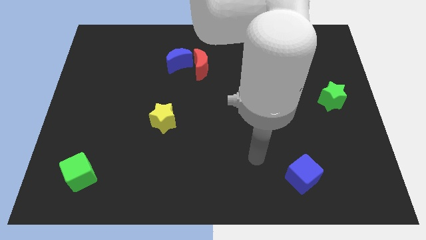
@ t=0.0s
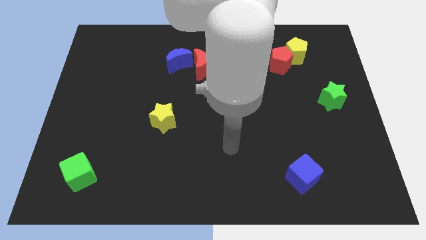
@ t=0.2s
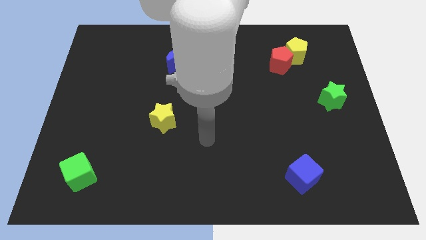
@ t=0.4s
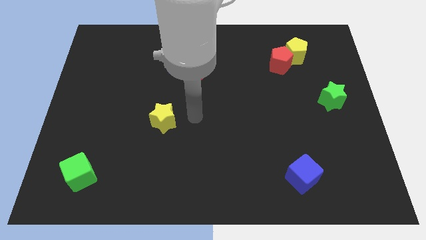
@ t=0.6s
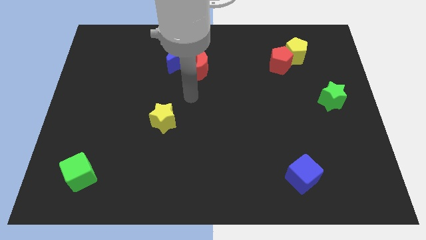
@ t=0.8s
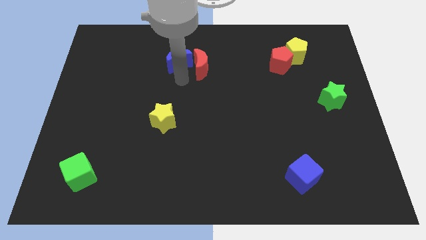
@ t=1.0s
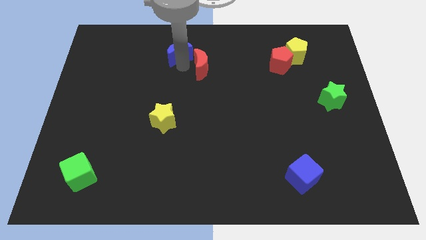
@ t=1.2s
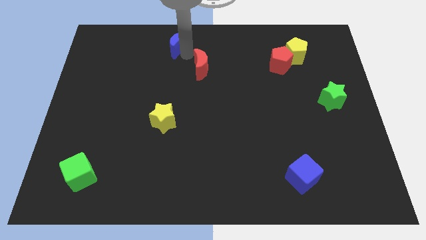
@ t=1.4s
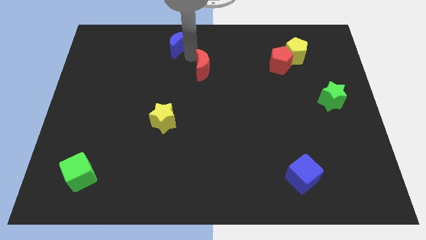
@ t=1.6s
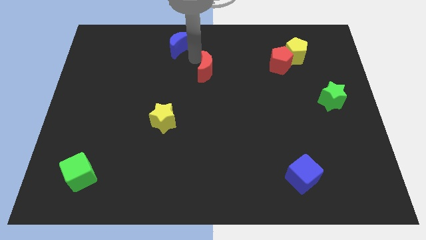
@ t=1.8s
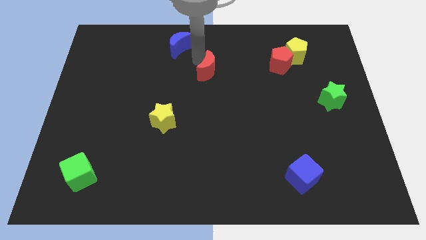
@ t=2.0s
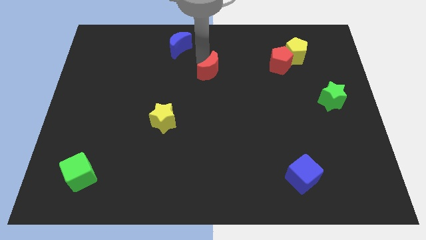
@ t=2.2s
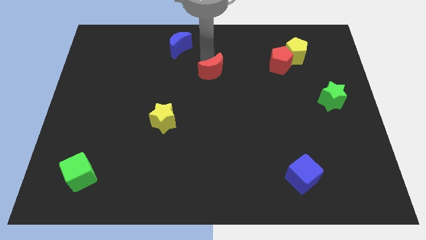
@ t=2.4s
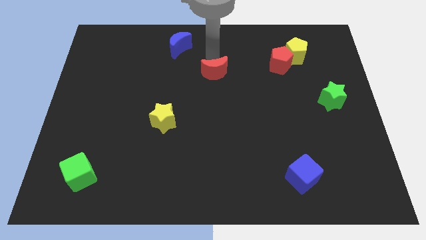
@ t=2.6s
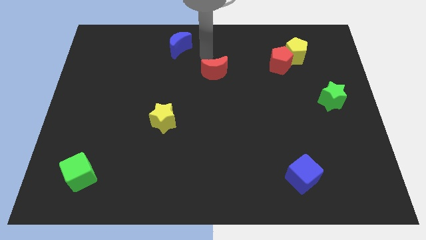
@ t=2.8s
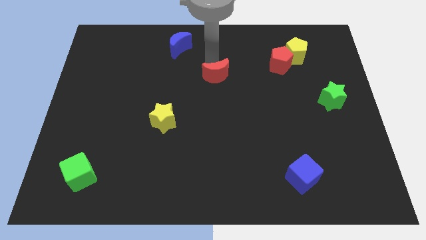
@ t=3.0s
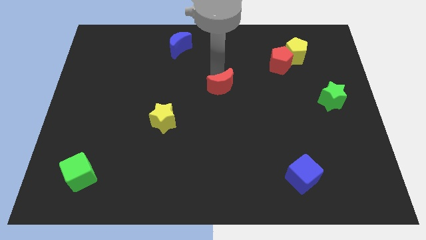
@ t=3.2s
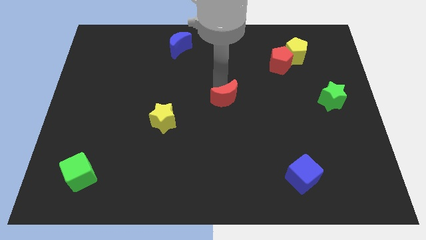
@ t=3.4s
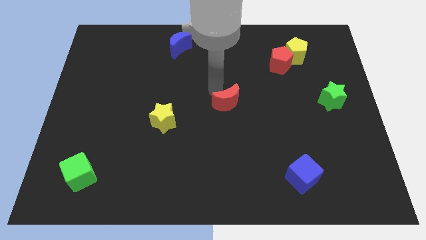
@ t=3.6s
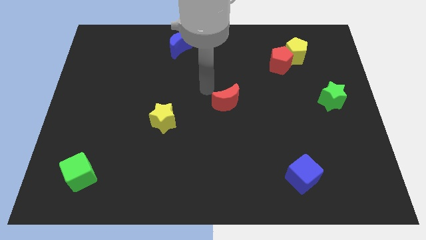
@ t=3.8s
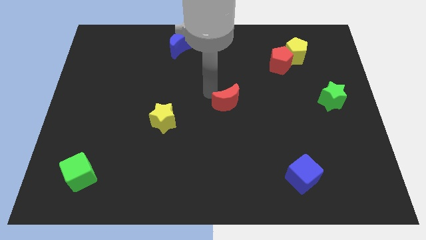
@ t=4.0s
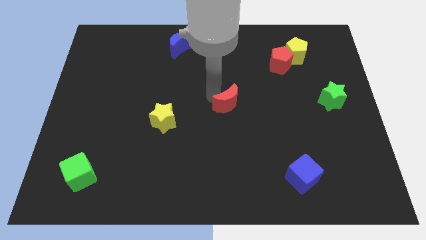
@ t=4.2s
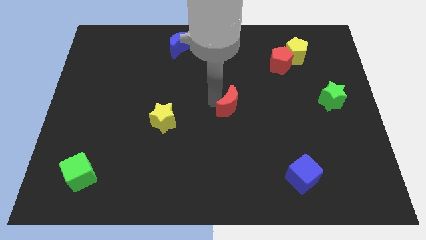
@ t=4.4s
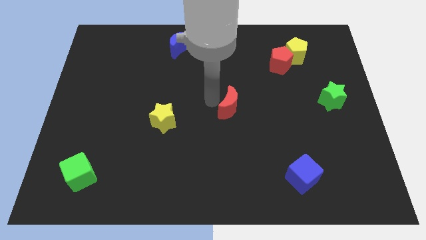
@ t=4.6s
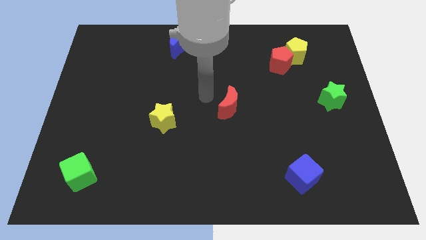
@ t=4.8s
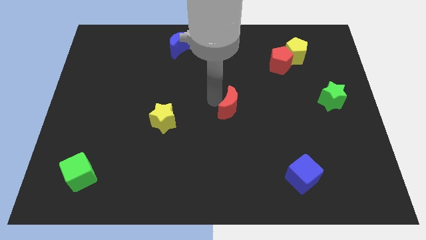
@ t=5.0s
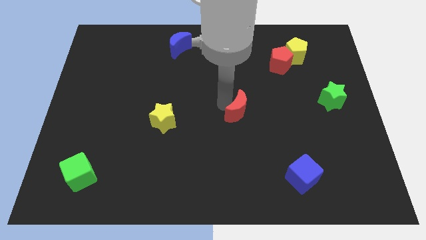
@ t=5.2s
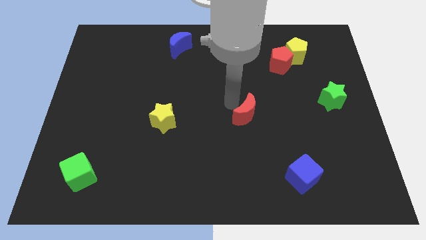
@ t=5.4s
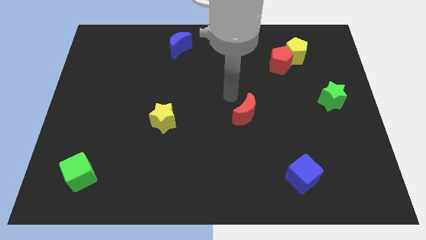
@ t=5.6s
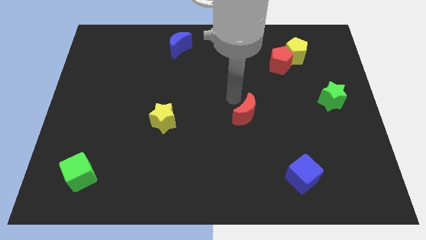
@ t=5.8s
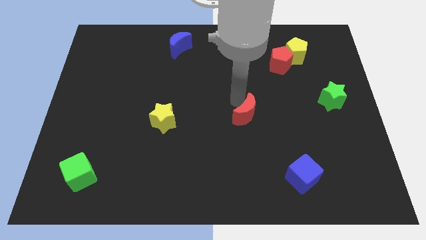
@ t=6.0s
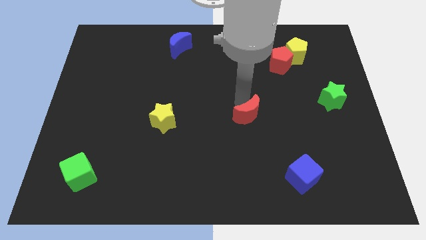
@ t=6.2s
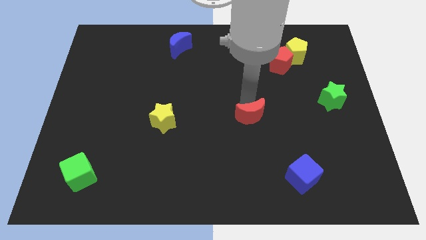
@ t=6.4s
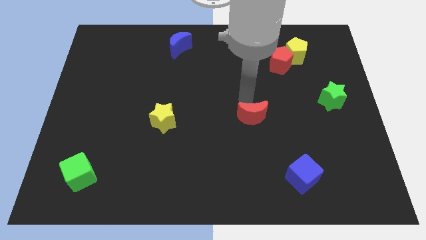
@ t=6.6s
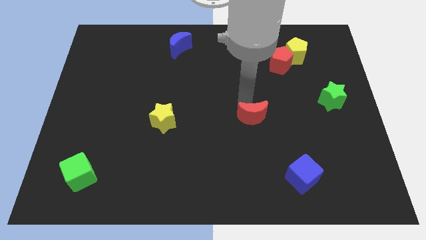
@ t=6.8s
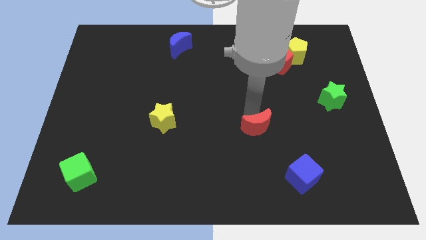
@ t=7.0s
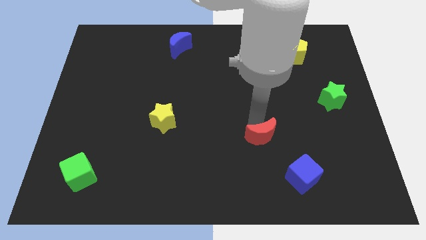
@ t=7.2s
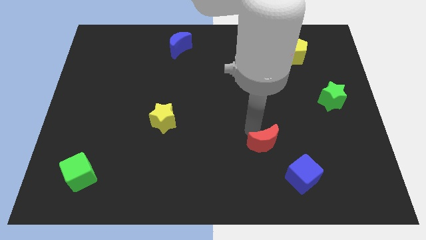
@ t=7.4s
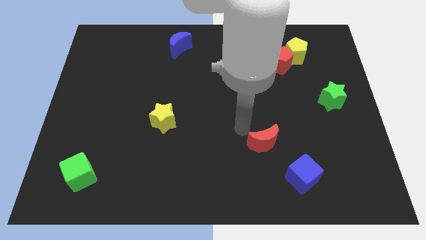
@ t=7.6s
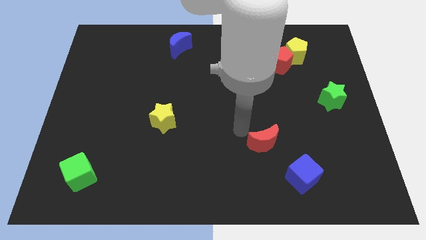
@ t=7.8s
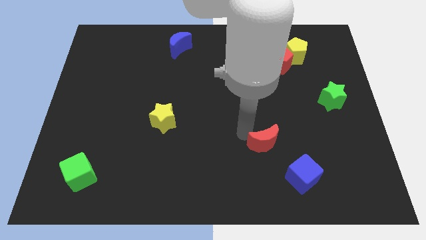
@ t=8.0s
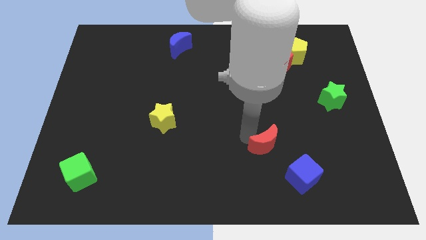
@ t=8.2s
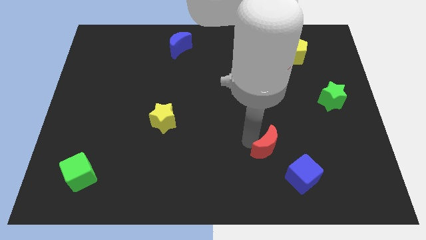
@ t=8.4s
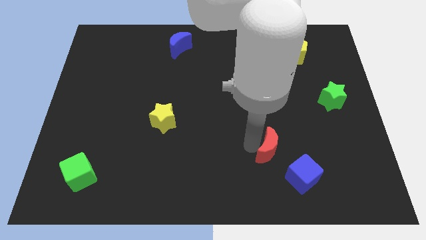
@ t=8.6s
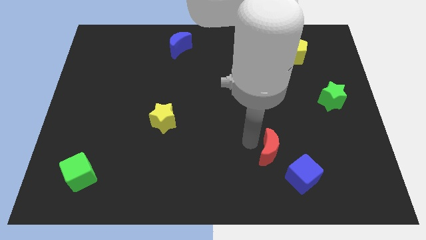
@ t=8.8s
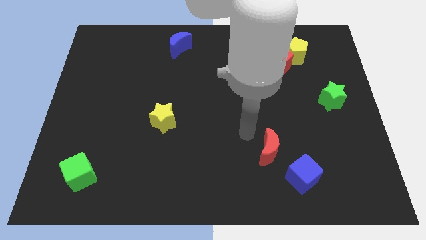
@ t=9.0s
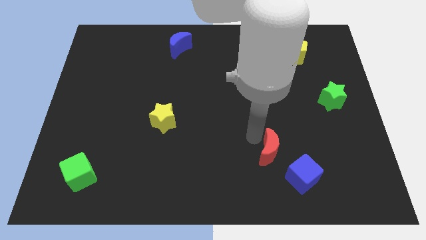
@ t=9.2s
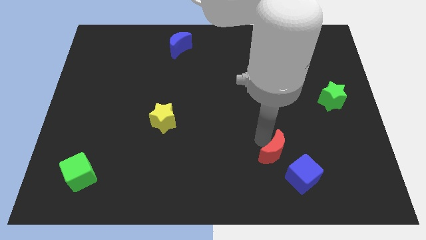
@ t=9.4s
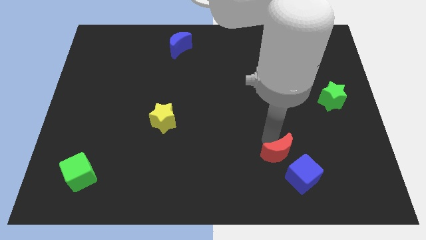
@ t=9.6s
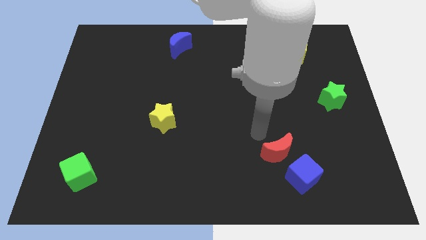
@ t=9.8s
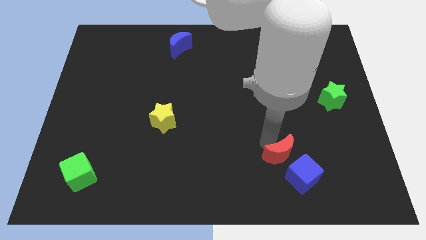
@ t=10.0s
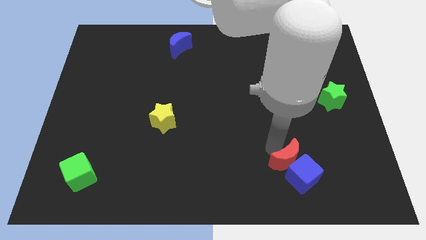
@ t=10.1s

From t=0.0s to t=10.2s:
put the red moon towards the blue cube

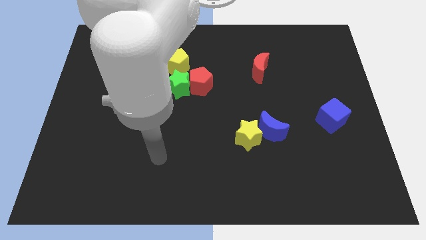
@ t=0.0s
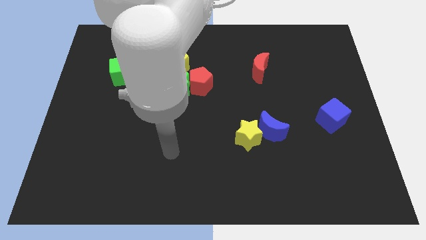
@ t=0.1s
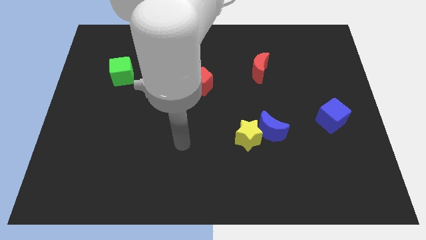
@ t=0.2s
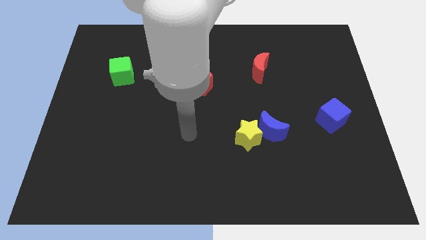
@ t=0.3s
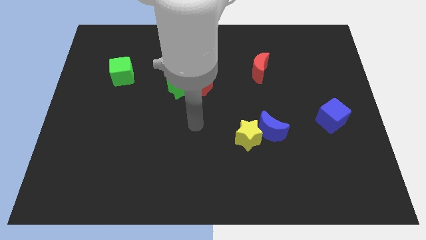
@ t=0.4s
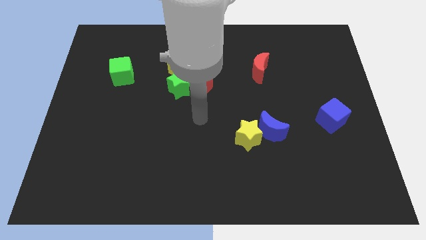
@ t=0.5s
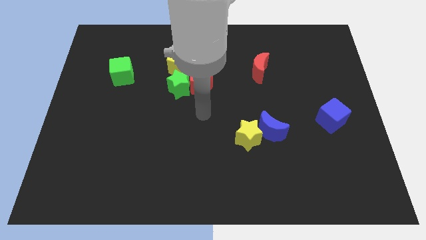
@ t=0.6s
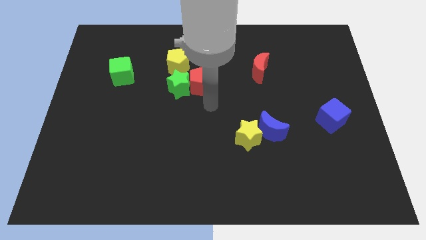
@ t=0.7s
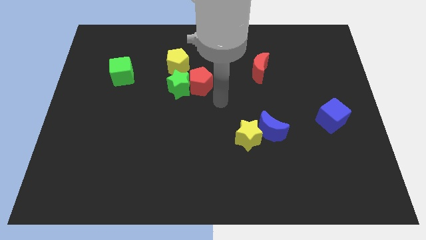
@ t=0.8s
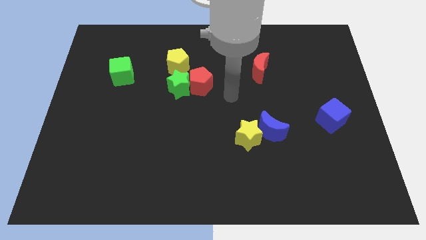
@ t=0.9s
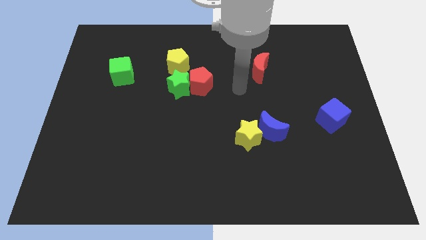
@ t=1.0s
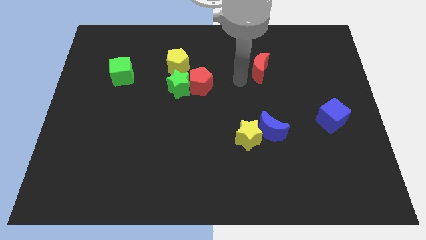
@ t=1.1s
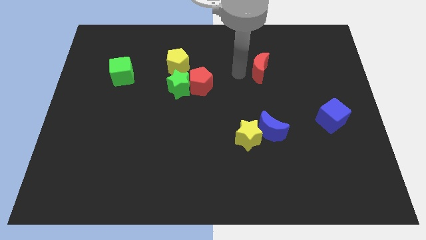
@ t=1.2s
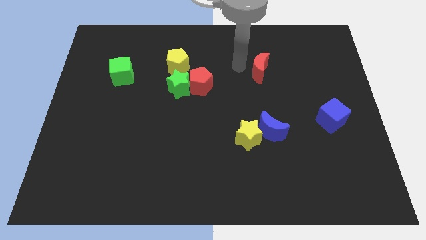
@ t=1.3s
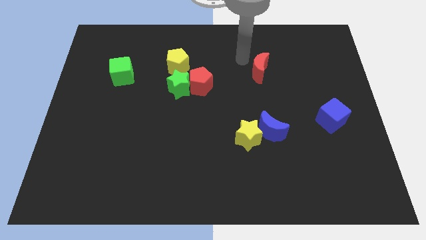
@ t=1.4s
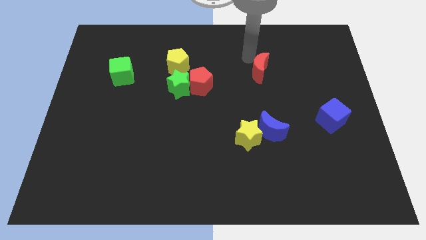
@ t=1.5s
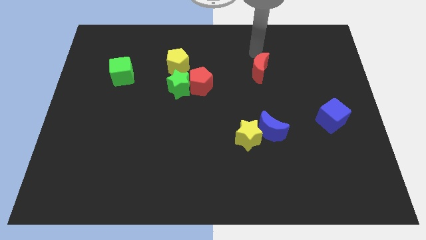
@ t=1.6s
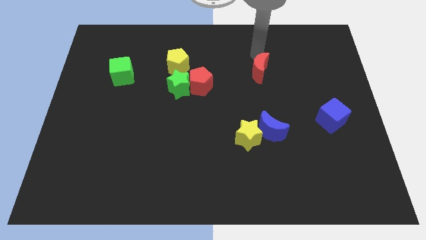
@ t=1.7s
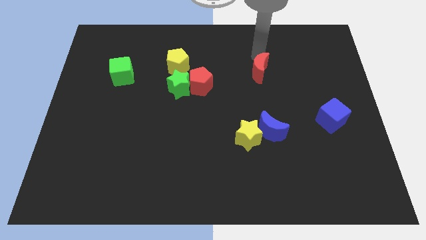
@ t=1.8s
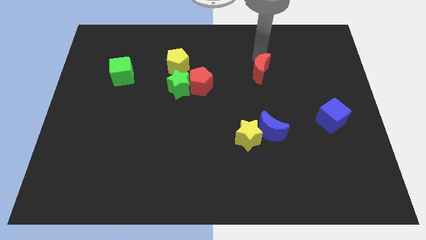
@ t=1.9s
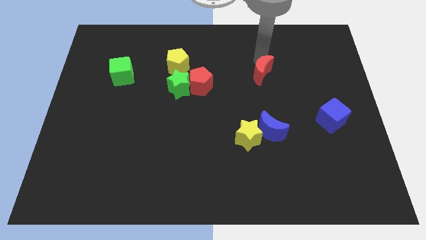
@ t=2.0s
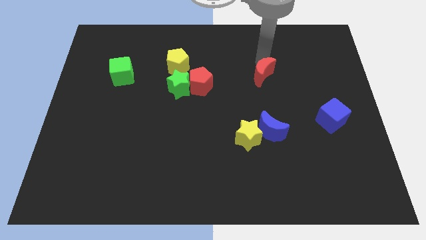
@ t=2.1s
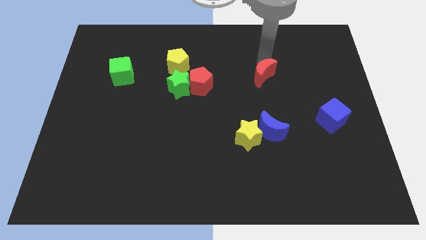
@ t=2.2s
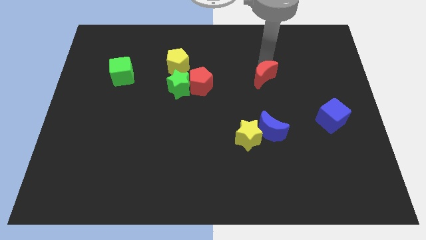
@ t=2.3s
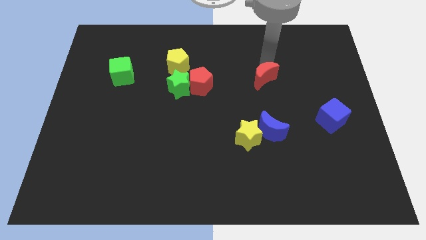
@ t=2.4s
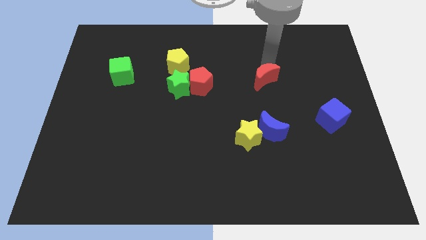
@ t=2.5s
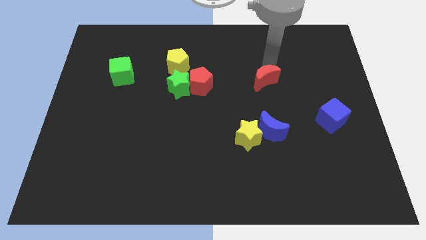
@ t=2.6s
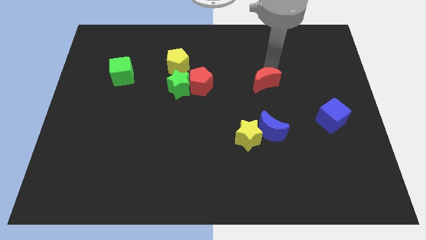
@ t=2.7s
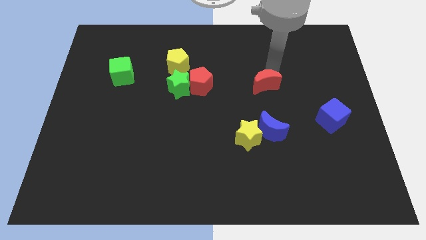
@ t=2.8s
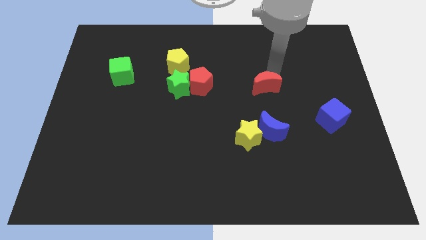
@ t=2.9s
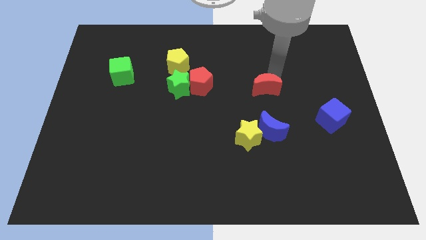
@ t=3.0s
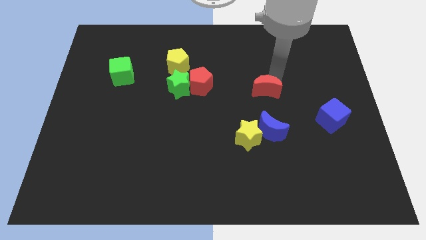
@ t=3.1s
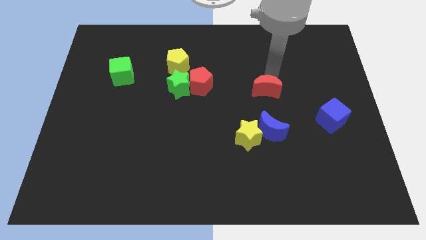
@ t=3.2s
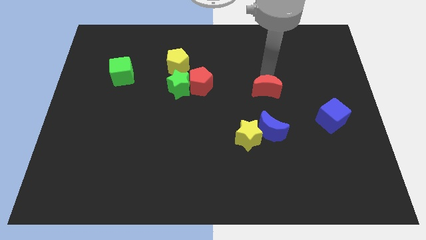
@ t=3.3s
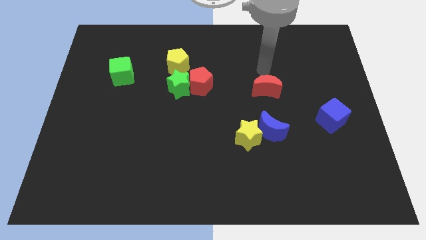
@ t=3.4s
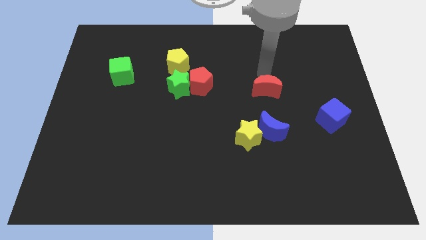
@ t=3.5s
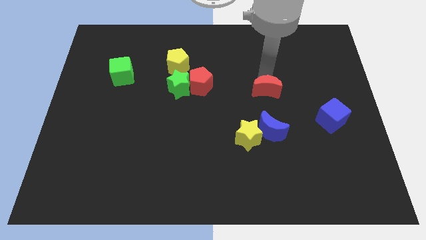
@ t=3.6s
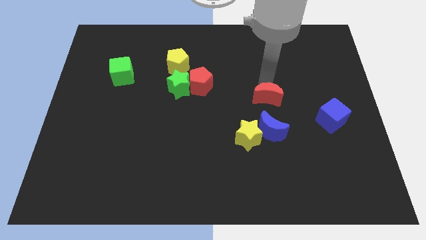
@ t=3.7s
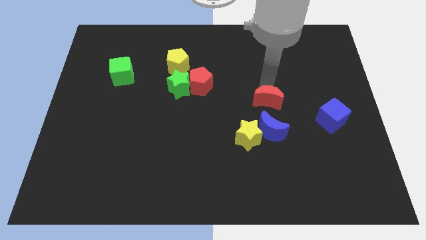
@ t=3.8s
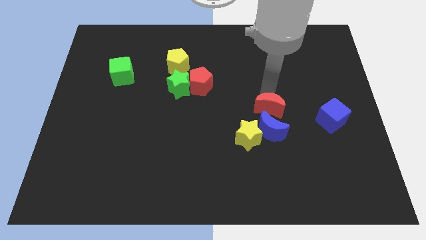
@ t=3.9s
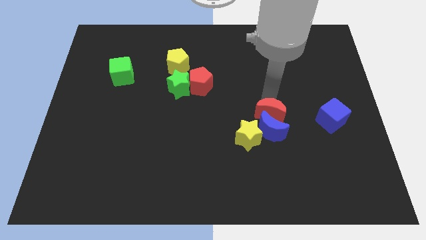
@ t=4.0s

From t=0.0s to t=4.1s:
push the red moon to the blue moon
